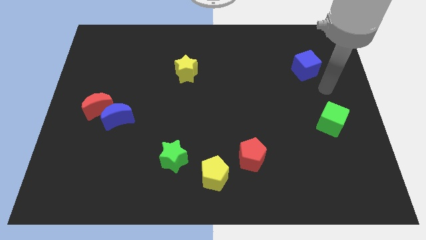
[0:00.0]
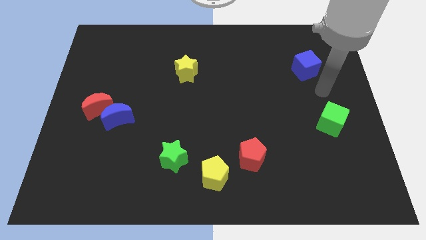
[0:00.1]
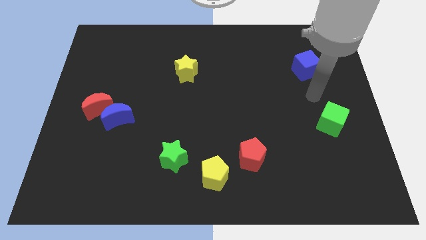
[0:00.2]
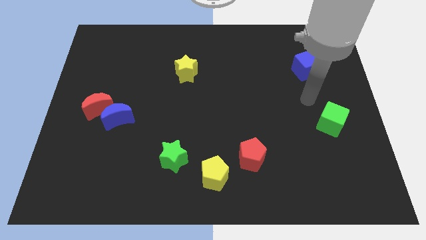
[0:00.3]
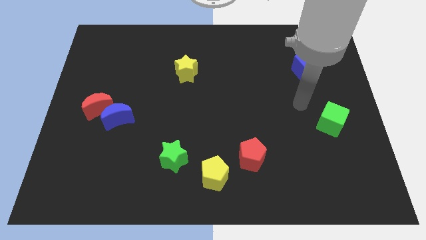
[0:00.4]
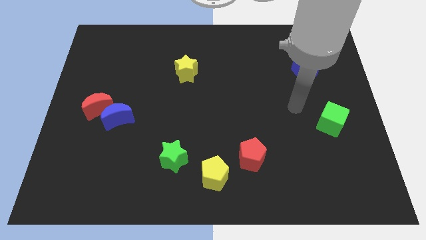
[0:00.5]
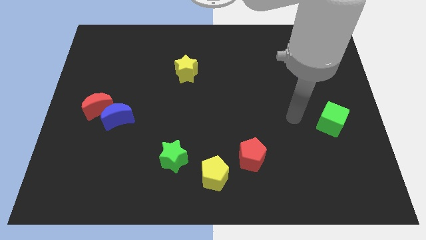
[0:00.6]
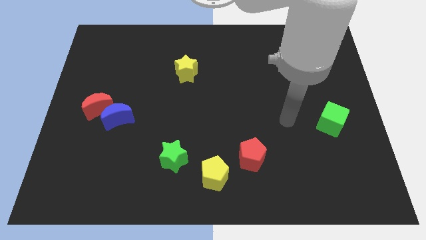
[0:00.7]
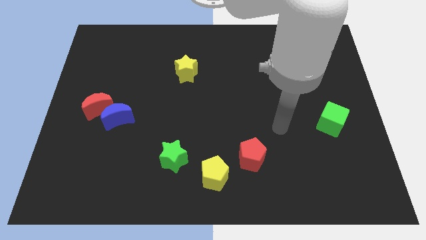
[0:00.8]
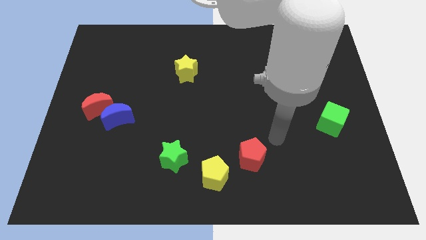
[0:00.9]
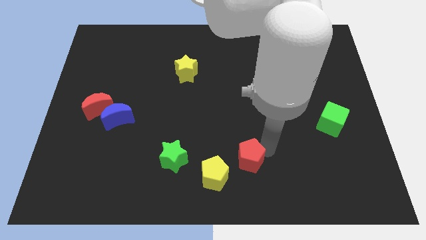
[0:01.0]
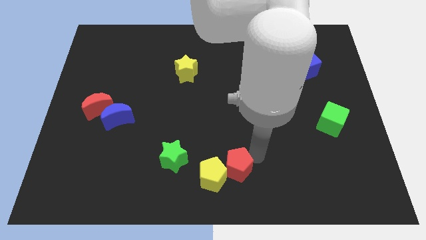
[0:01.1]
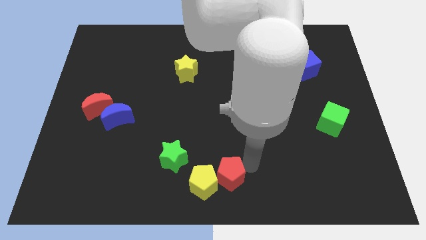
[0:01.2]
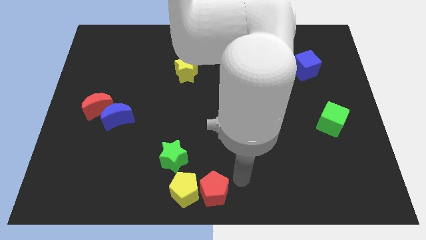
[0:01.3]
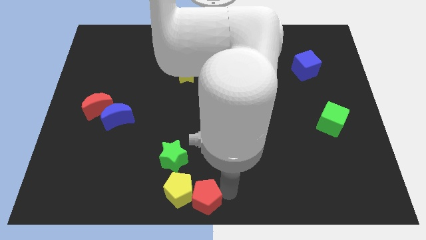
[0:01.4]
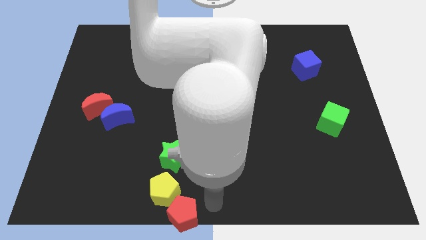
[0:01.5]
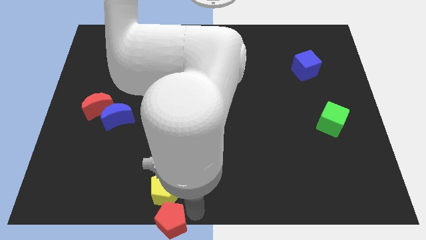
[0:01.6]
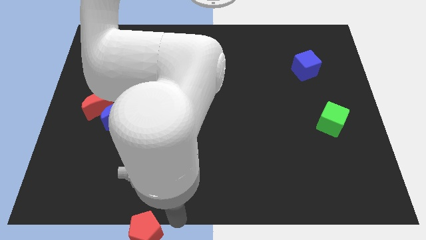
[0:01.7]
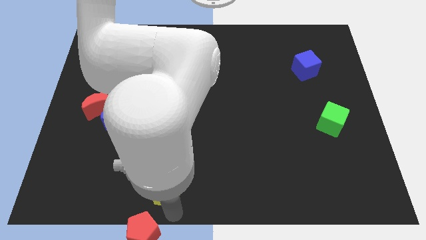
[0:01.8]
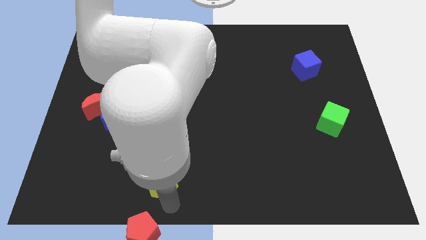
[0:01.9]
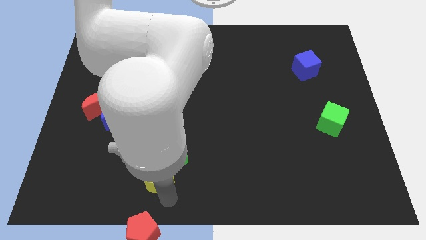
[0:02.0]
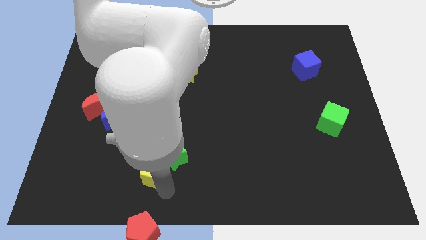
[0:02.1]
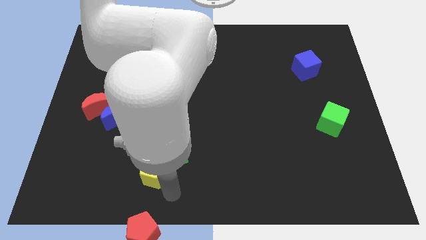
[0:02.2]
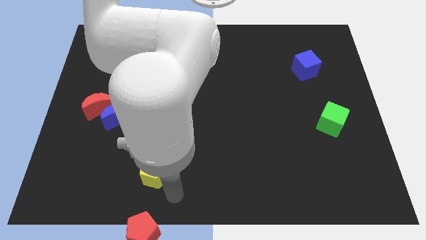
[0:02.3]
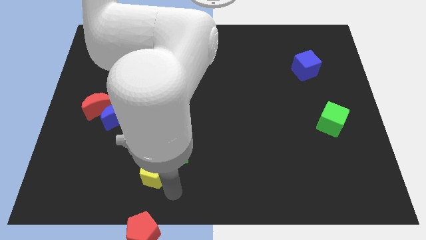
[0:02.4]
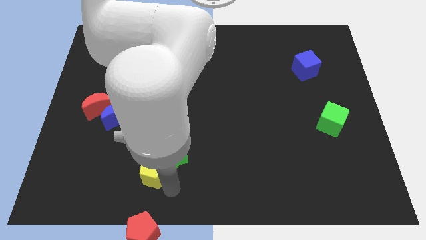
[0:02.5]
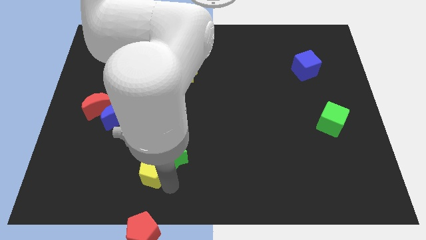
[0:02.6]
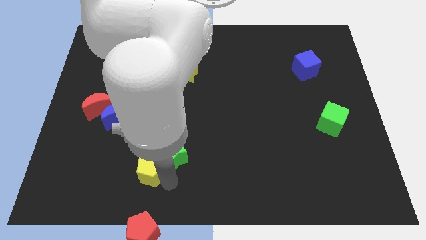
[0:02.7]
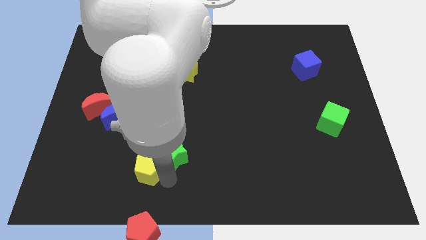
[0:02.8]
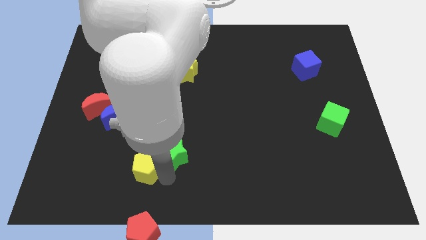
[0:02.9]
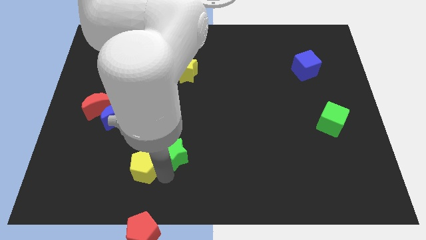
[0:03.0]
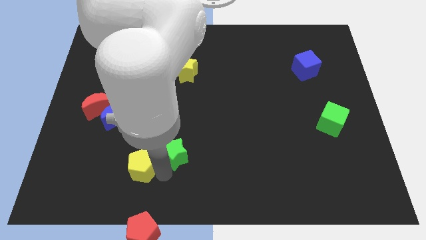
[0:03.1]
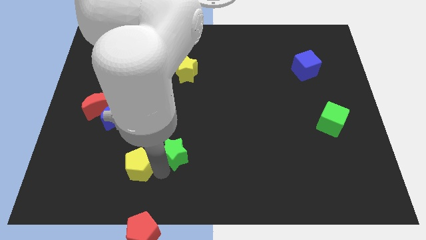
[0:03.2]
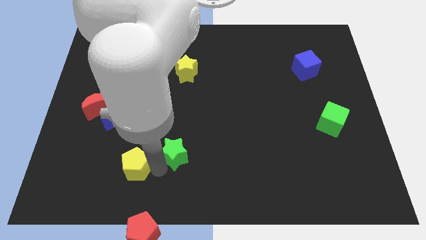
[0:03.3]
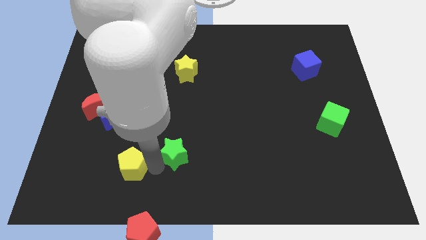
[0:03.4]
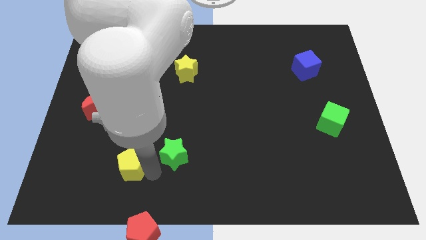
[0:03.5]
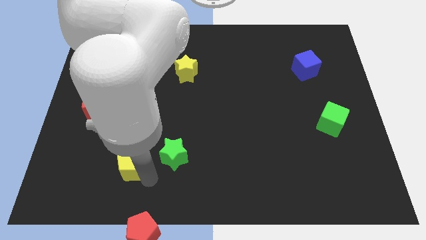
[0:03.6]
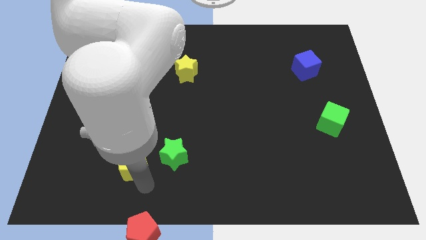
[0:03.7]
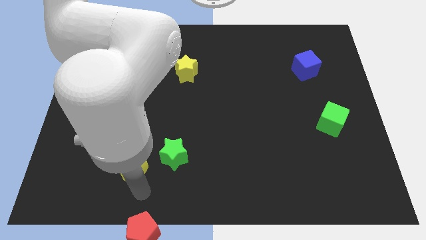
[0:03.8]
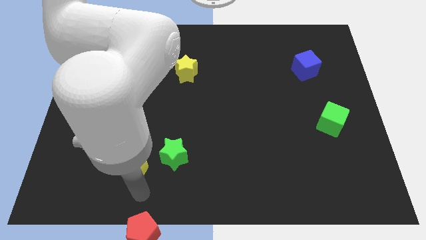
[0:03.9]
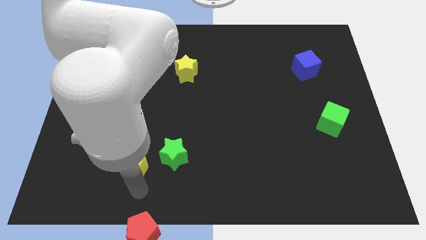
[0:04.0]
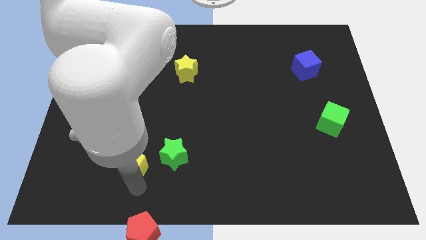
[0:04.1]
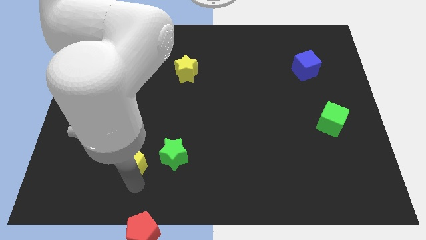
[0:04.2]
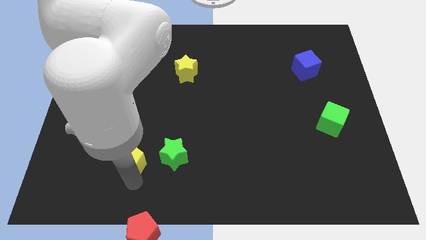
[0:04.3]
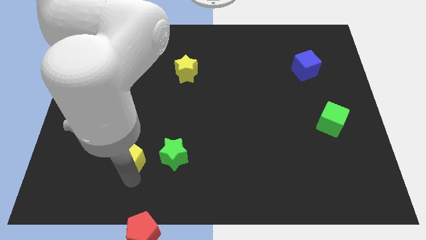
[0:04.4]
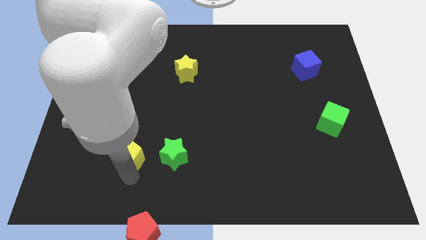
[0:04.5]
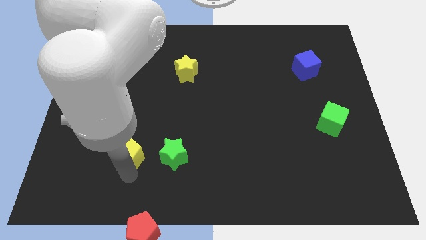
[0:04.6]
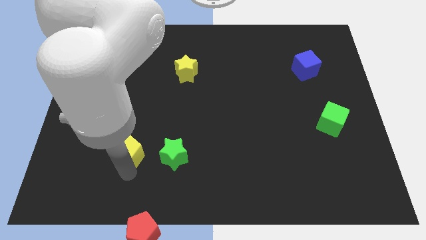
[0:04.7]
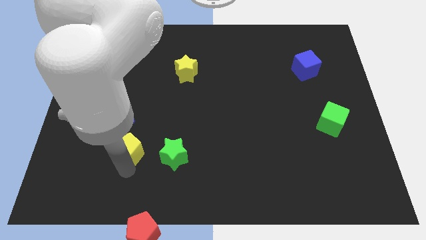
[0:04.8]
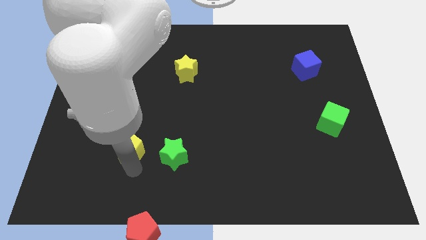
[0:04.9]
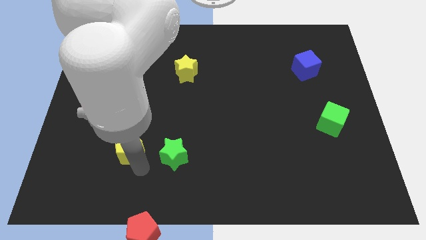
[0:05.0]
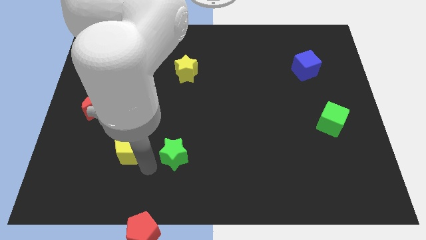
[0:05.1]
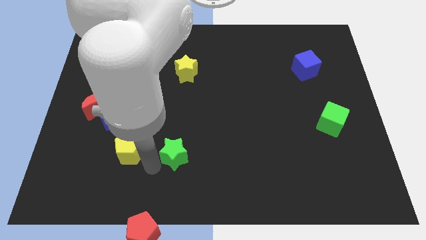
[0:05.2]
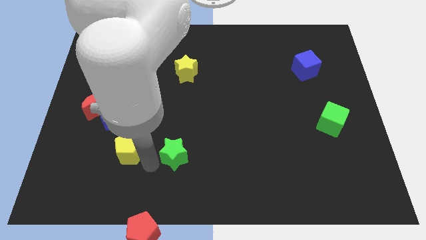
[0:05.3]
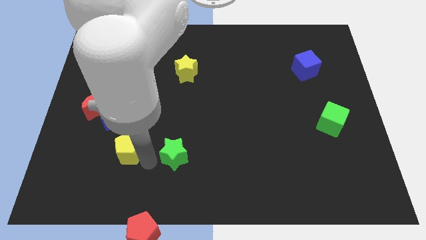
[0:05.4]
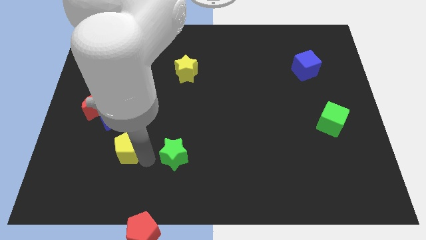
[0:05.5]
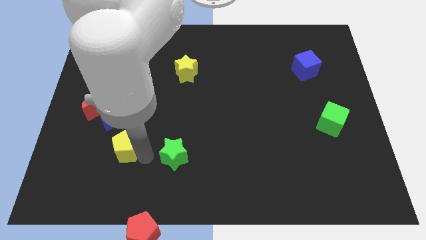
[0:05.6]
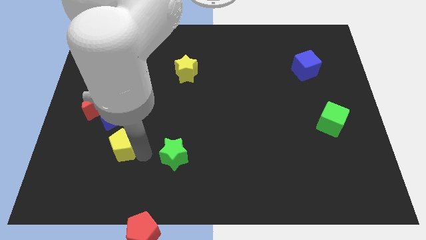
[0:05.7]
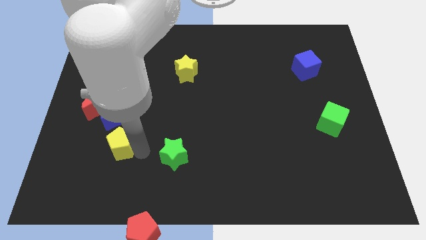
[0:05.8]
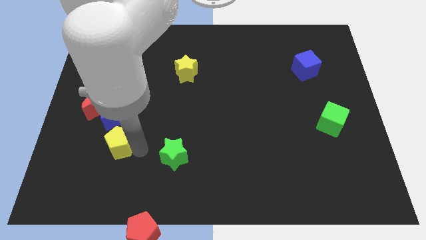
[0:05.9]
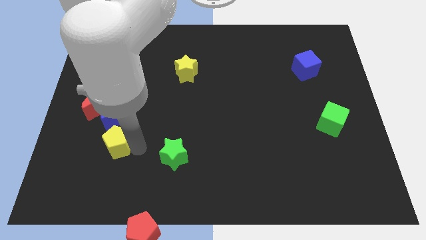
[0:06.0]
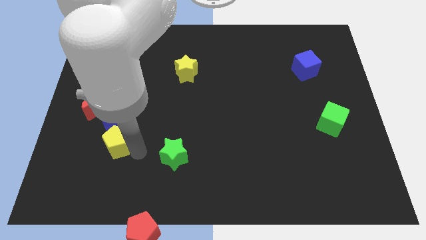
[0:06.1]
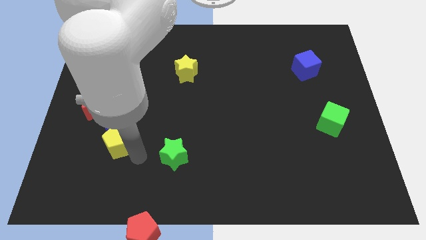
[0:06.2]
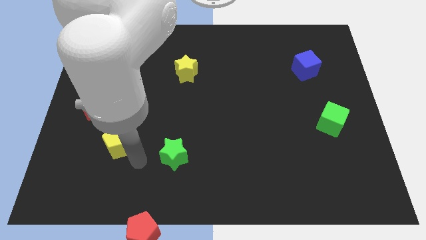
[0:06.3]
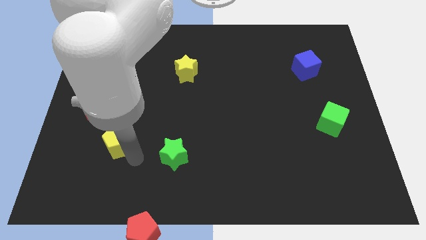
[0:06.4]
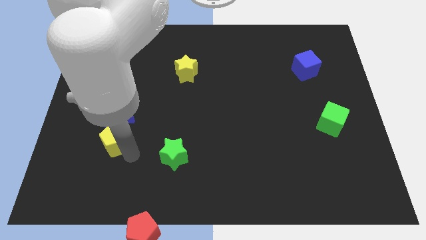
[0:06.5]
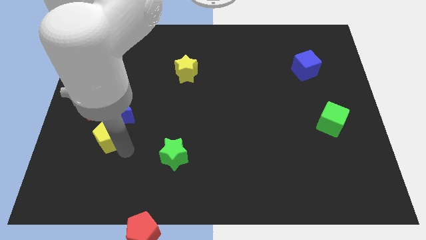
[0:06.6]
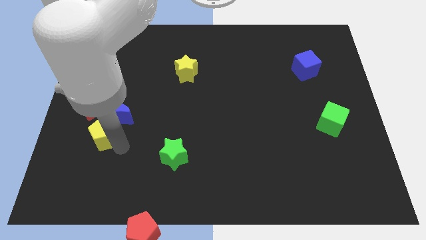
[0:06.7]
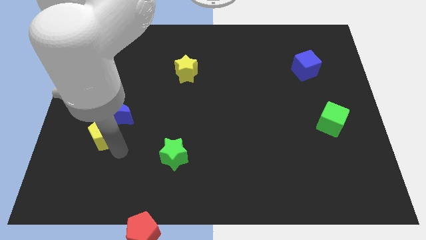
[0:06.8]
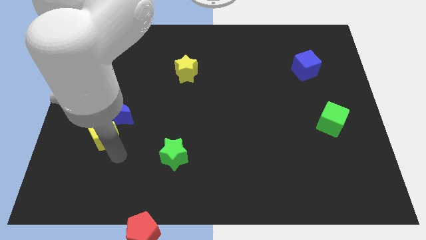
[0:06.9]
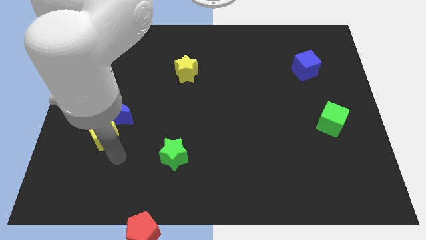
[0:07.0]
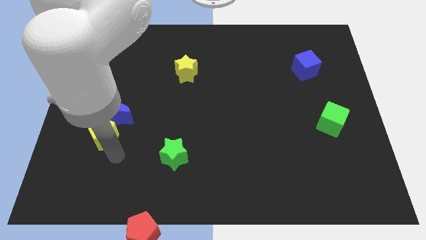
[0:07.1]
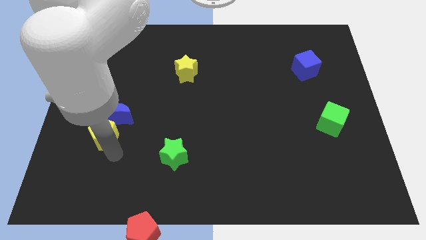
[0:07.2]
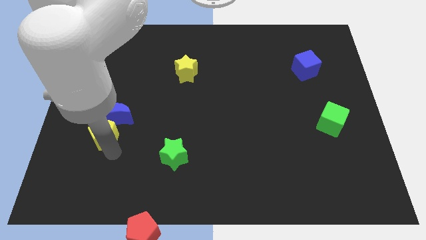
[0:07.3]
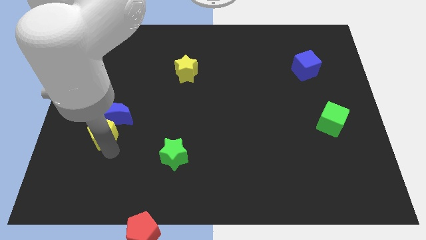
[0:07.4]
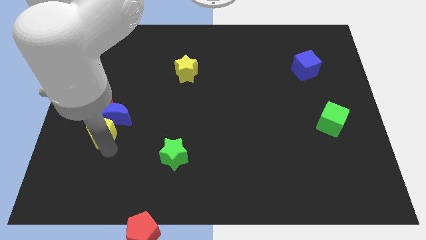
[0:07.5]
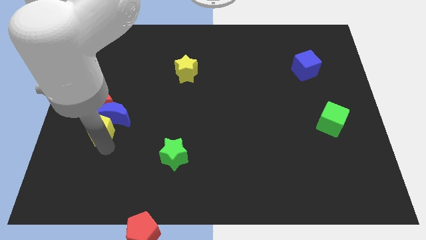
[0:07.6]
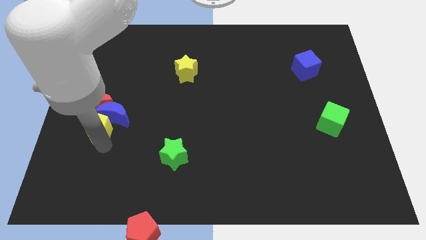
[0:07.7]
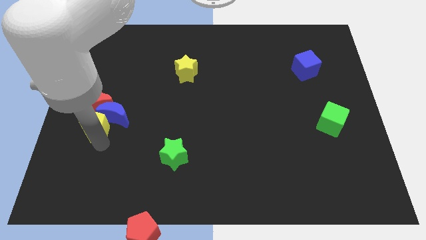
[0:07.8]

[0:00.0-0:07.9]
put the yellow pentagon close to the red moon
